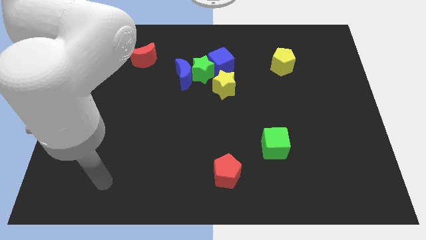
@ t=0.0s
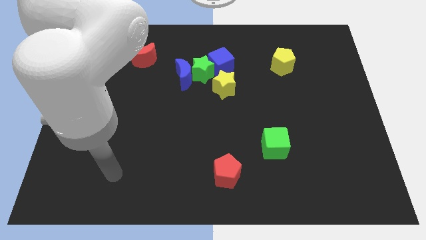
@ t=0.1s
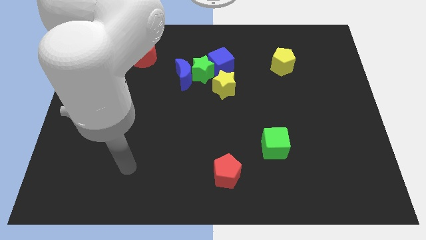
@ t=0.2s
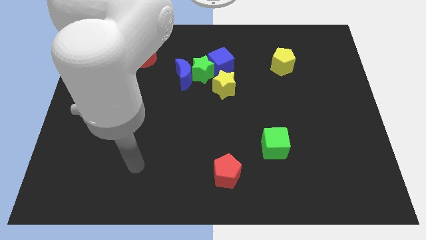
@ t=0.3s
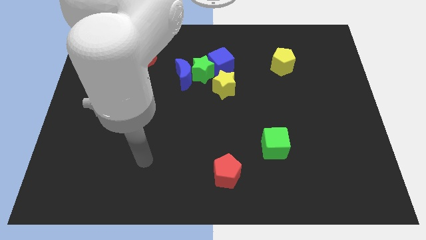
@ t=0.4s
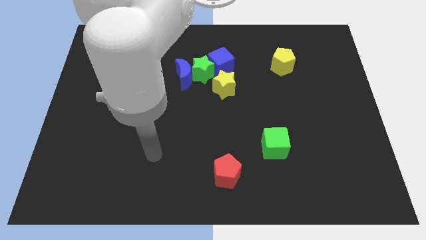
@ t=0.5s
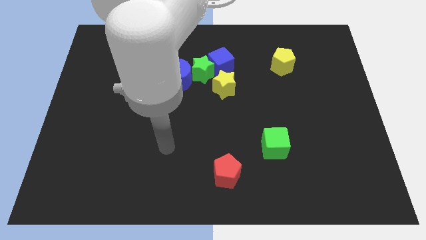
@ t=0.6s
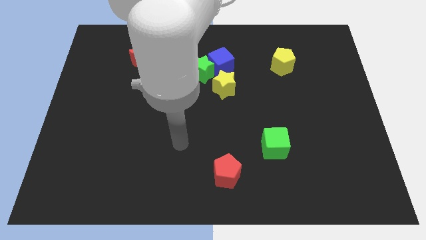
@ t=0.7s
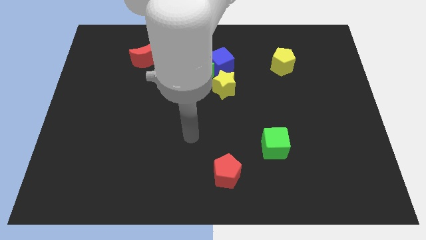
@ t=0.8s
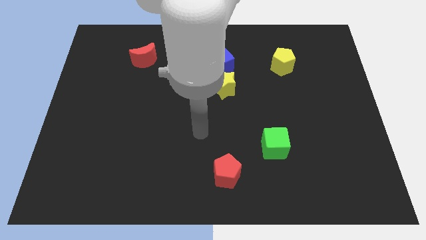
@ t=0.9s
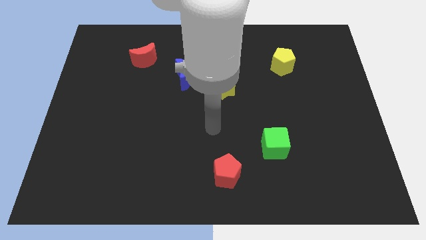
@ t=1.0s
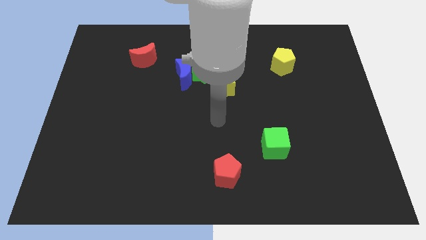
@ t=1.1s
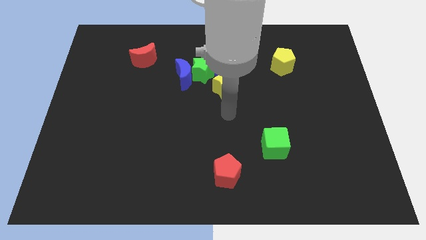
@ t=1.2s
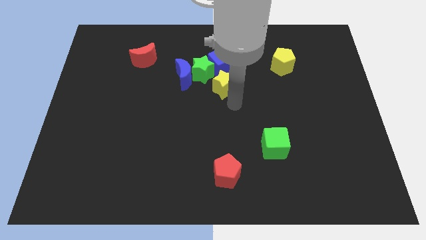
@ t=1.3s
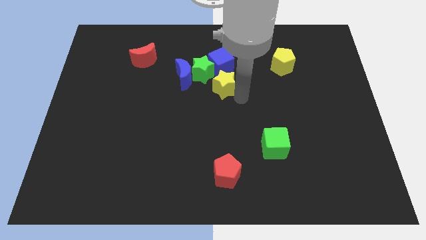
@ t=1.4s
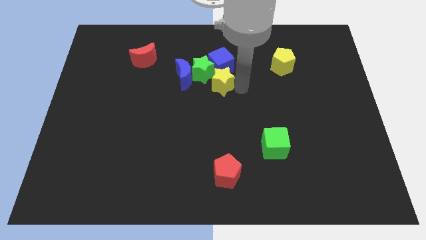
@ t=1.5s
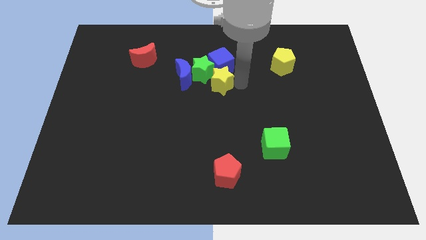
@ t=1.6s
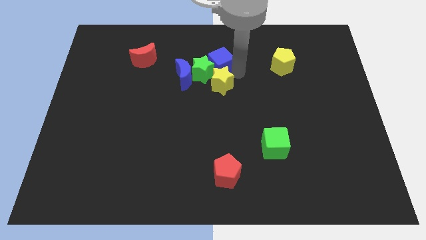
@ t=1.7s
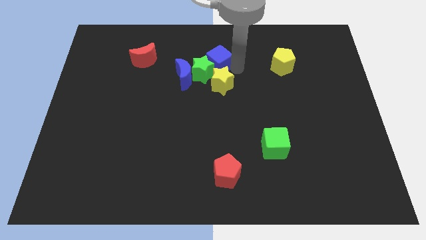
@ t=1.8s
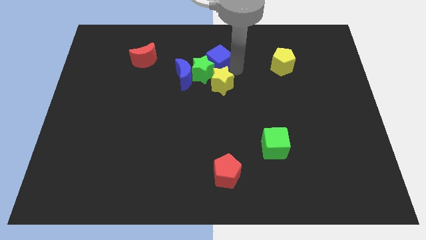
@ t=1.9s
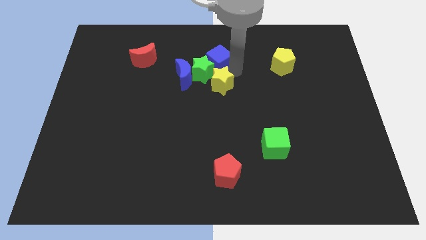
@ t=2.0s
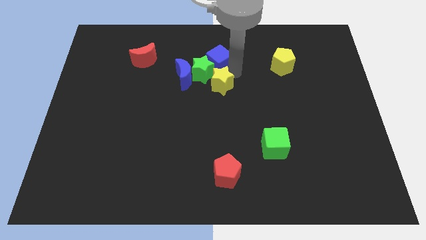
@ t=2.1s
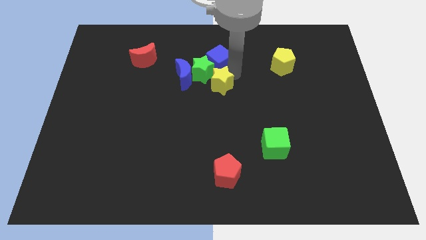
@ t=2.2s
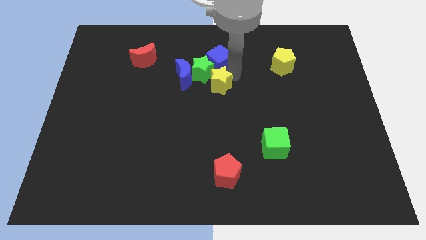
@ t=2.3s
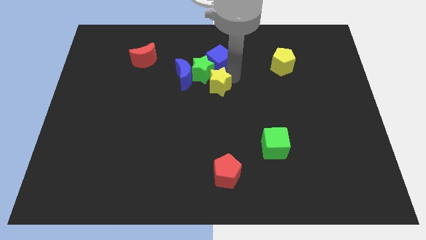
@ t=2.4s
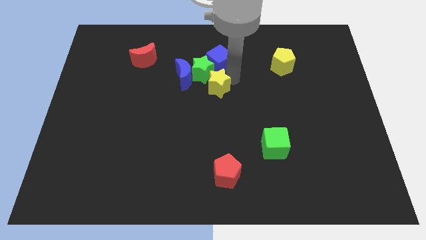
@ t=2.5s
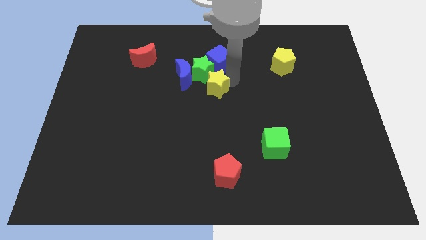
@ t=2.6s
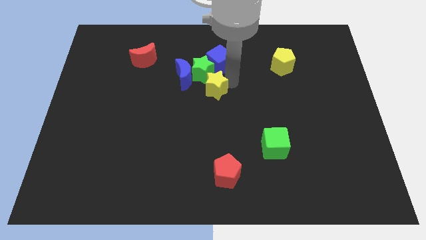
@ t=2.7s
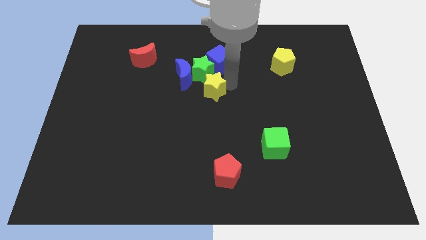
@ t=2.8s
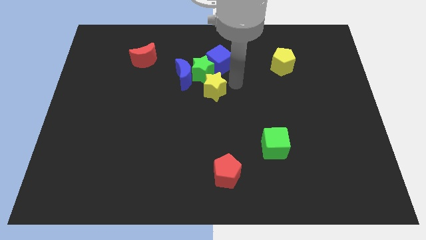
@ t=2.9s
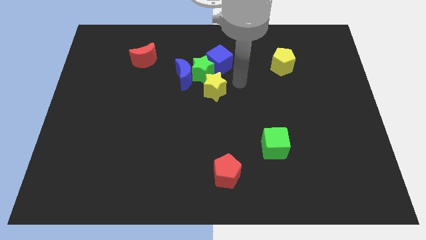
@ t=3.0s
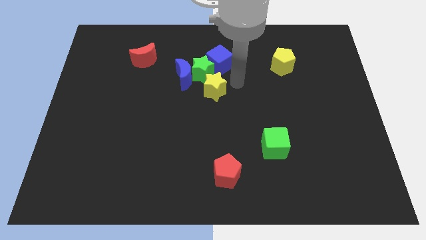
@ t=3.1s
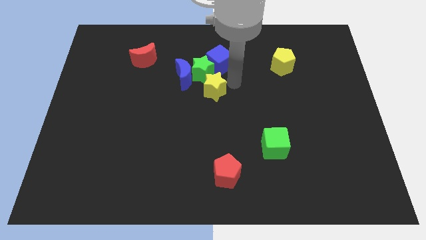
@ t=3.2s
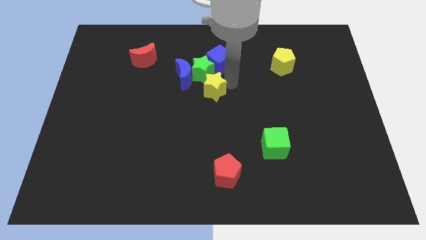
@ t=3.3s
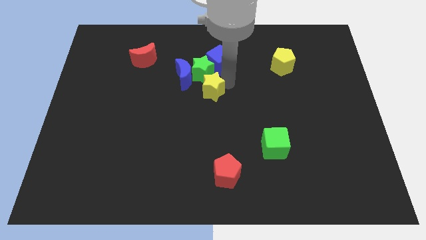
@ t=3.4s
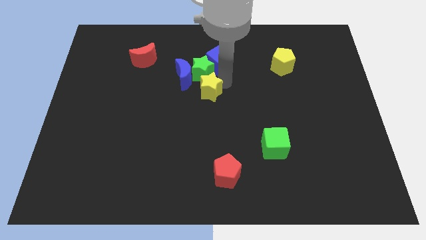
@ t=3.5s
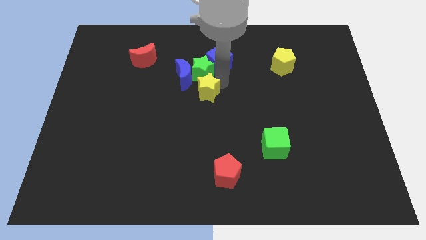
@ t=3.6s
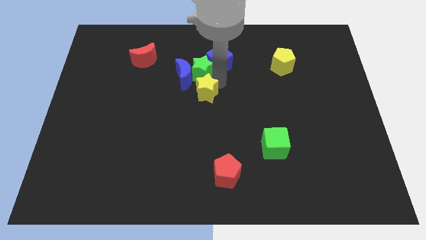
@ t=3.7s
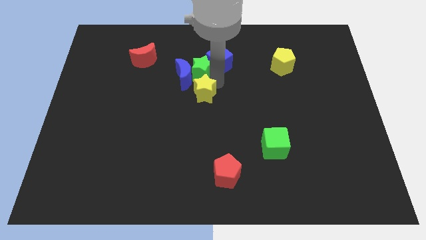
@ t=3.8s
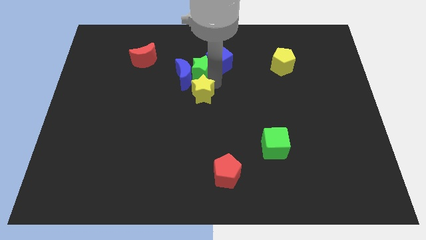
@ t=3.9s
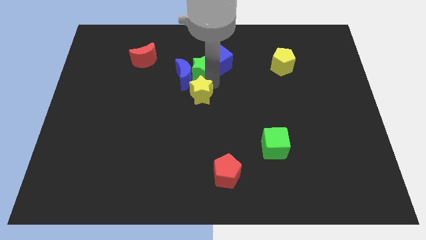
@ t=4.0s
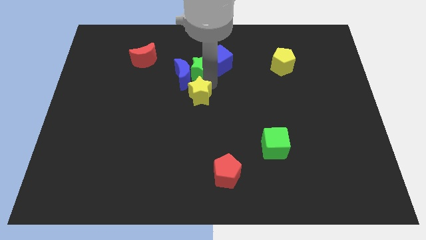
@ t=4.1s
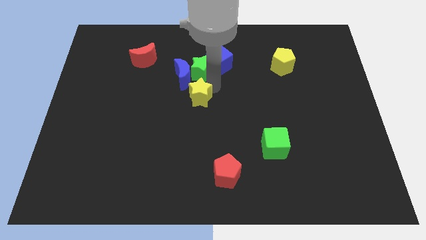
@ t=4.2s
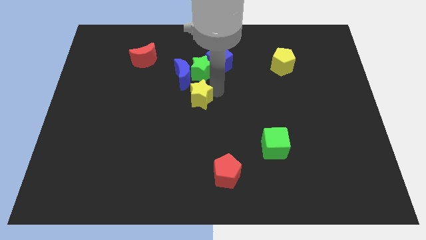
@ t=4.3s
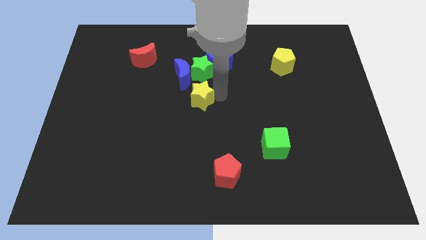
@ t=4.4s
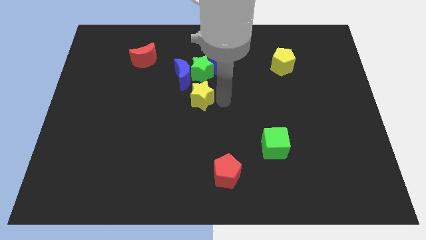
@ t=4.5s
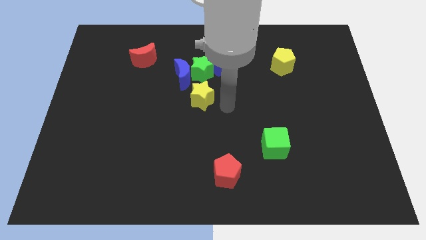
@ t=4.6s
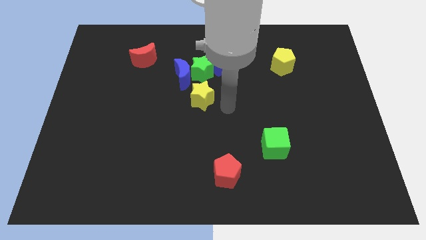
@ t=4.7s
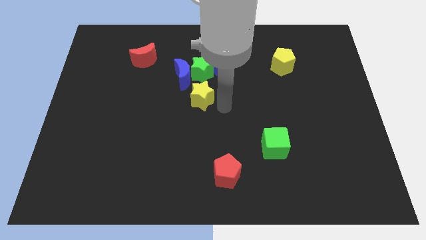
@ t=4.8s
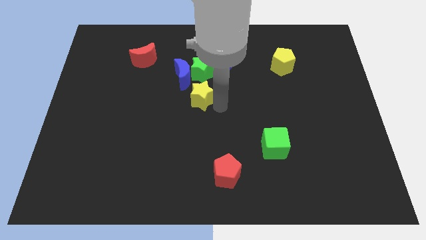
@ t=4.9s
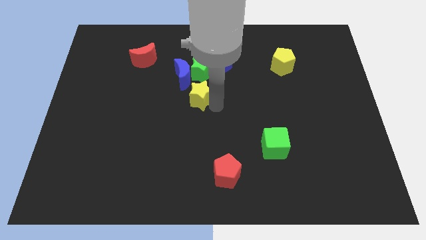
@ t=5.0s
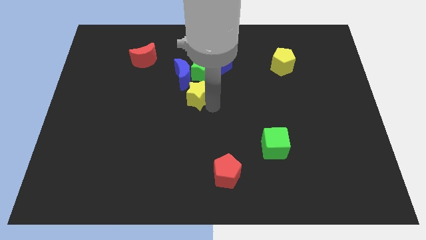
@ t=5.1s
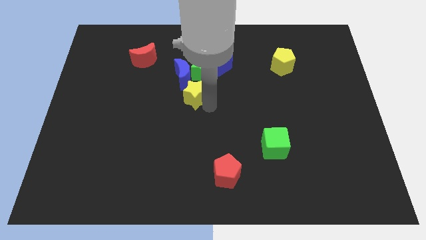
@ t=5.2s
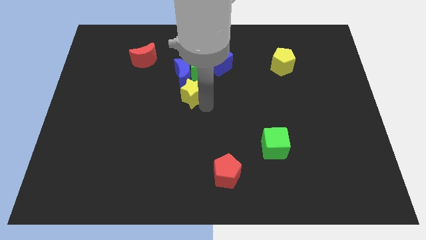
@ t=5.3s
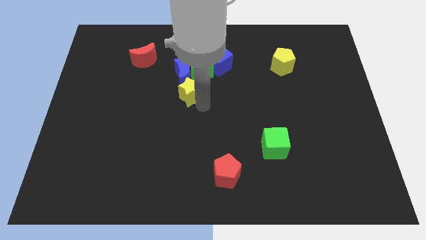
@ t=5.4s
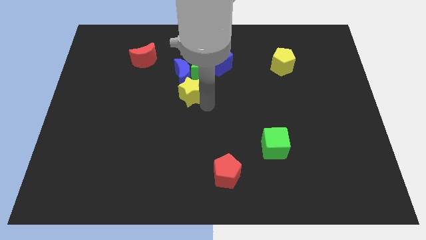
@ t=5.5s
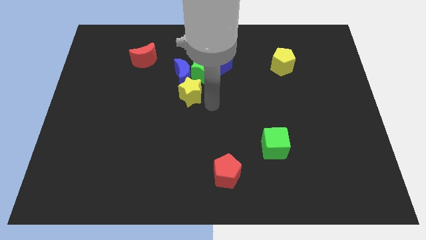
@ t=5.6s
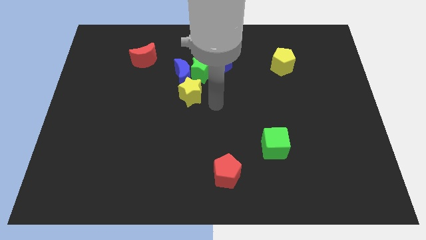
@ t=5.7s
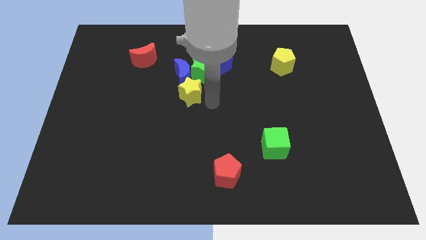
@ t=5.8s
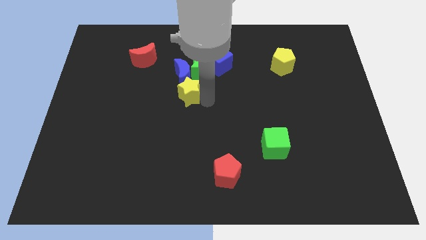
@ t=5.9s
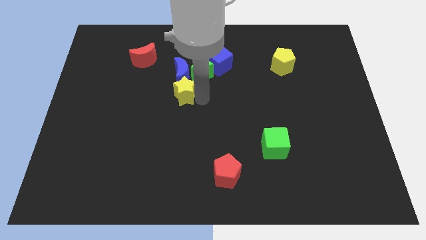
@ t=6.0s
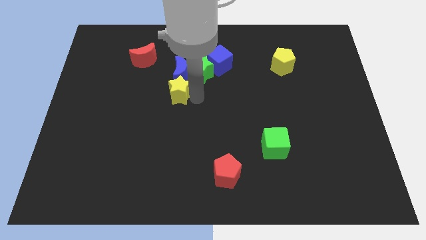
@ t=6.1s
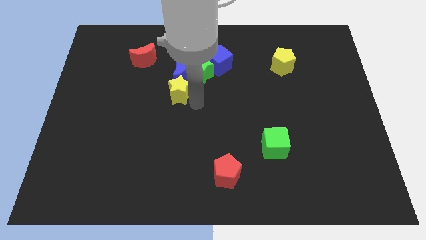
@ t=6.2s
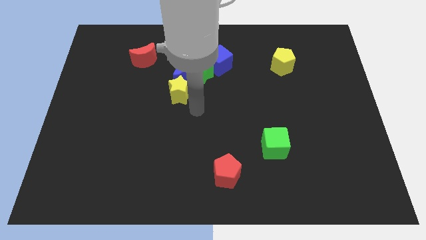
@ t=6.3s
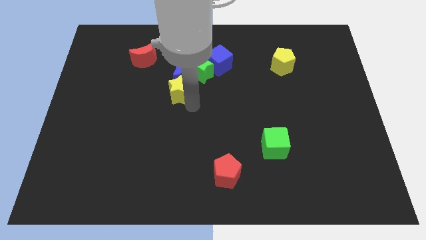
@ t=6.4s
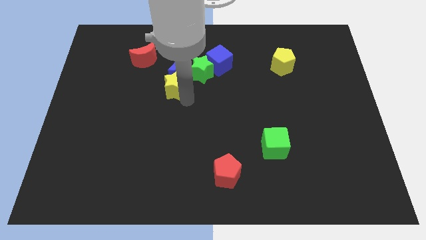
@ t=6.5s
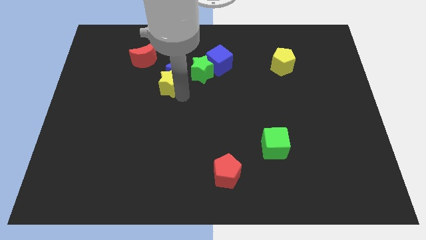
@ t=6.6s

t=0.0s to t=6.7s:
move the yellow star to the left of the green star
